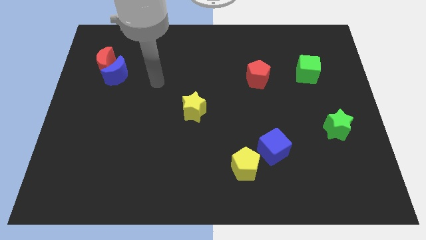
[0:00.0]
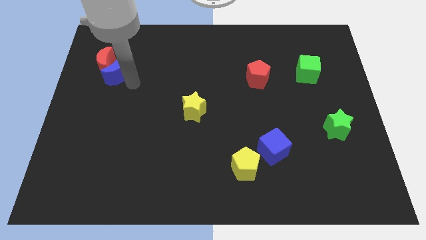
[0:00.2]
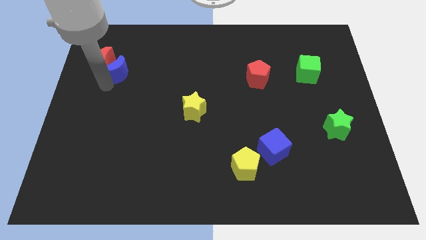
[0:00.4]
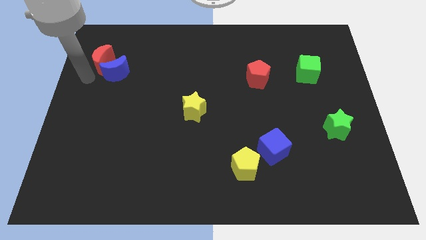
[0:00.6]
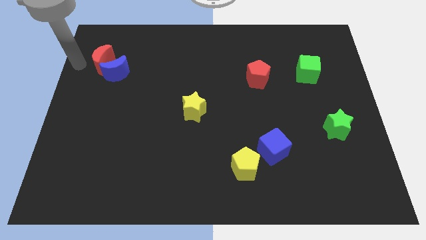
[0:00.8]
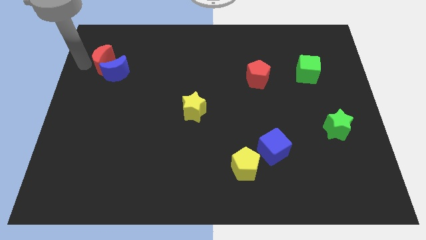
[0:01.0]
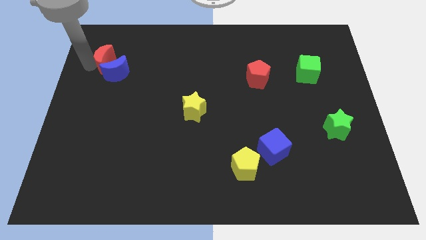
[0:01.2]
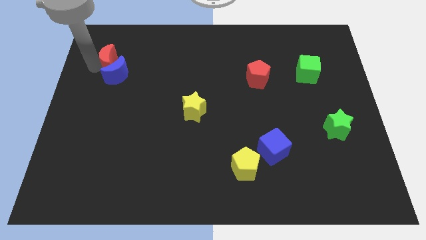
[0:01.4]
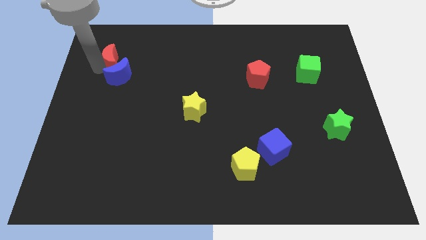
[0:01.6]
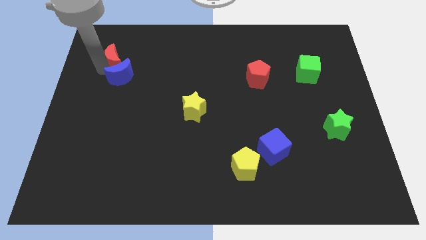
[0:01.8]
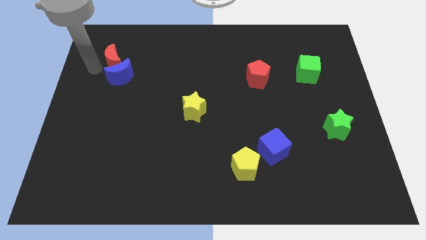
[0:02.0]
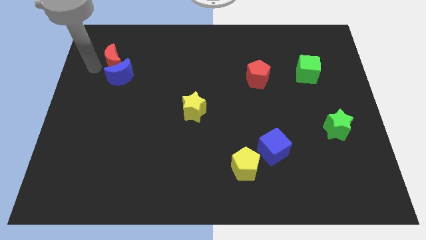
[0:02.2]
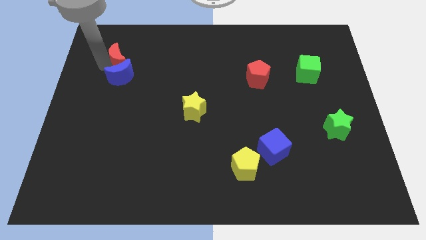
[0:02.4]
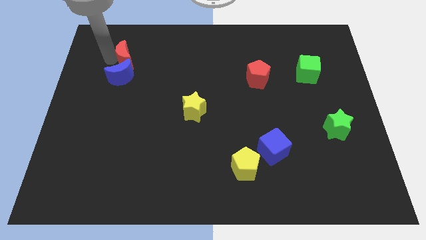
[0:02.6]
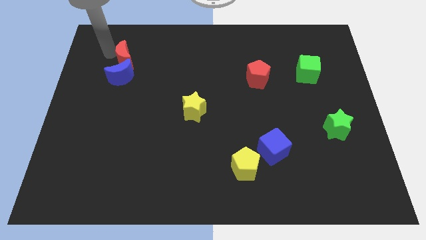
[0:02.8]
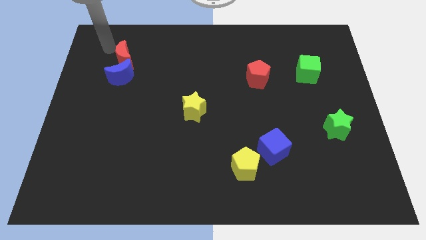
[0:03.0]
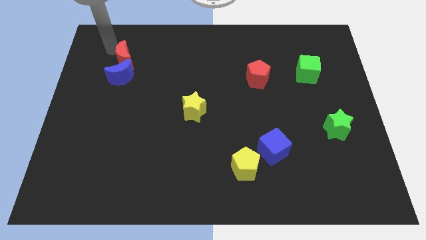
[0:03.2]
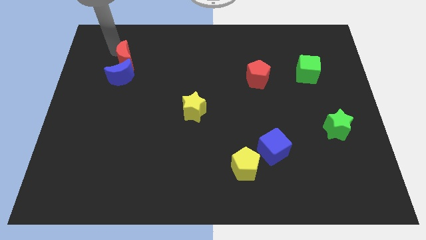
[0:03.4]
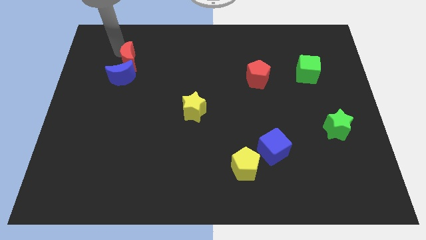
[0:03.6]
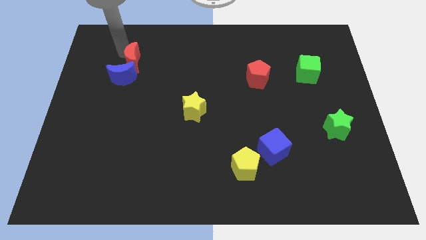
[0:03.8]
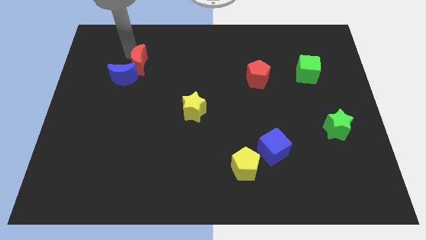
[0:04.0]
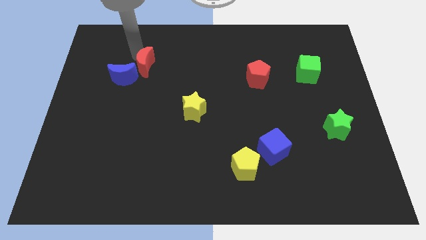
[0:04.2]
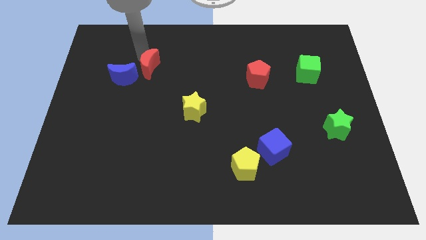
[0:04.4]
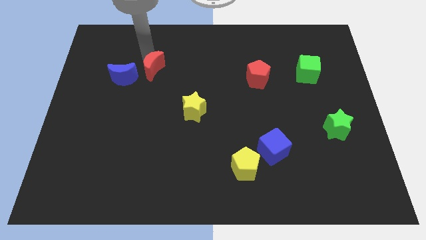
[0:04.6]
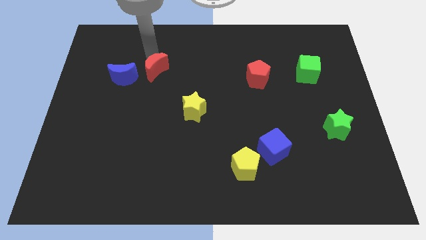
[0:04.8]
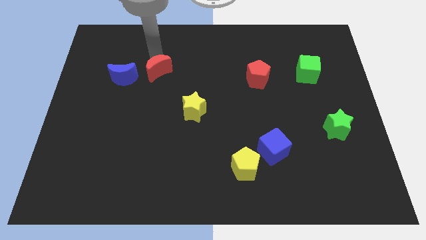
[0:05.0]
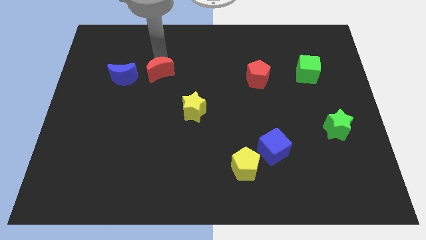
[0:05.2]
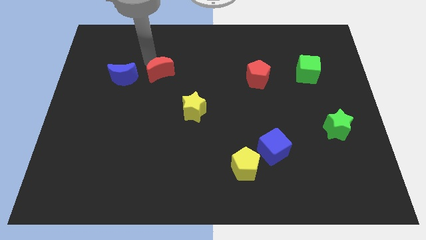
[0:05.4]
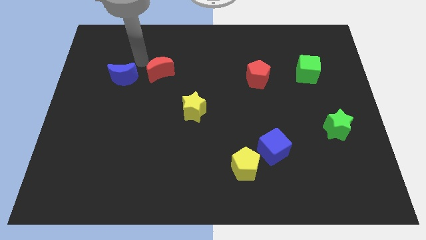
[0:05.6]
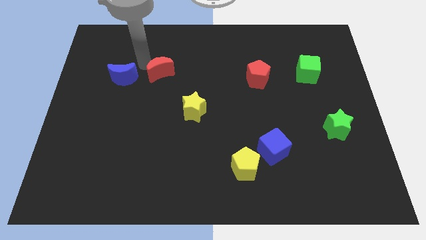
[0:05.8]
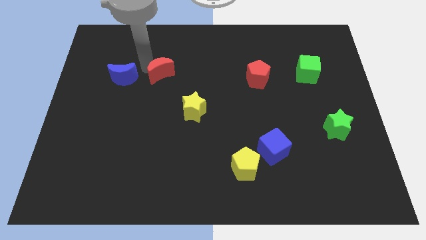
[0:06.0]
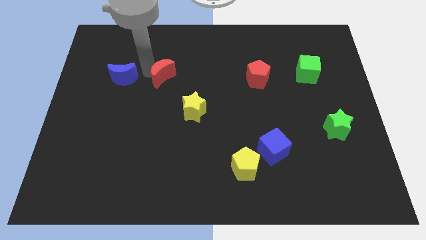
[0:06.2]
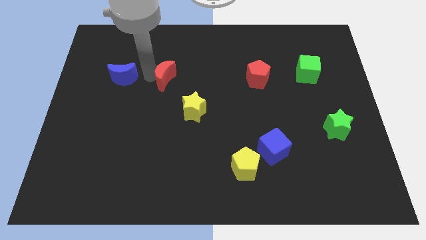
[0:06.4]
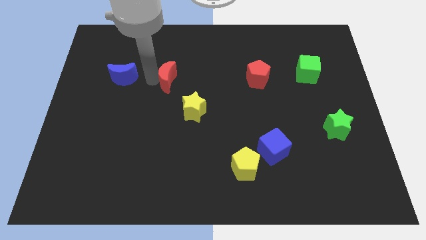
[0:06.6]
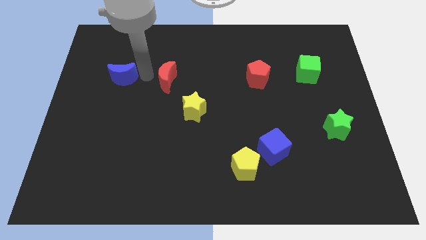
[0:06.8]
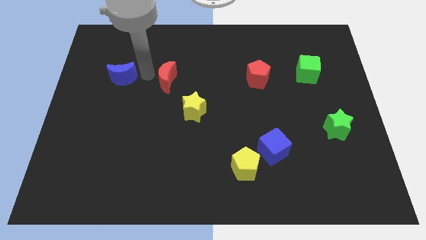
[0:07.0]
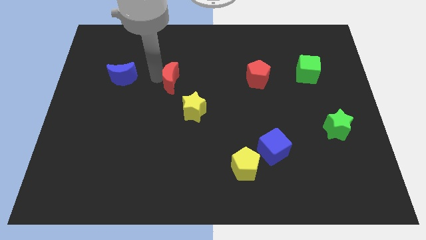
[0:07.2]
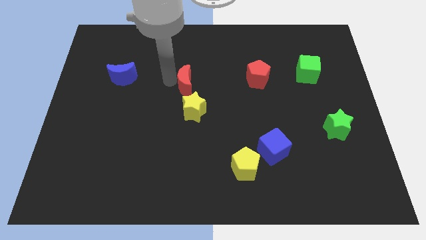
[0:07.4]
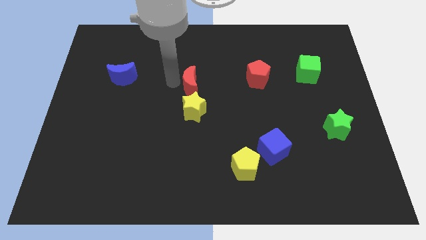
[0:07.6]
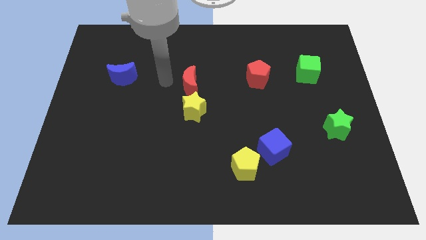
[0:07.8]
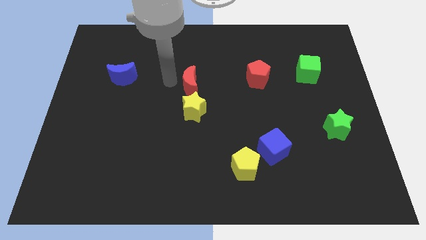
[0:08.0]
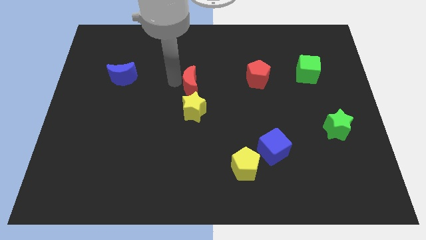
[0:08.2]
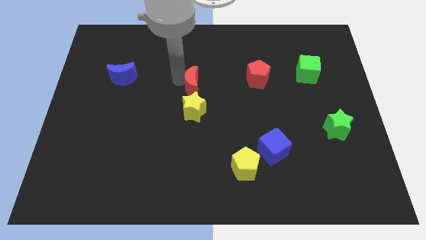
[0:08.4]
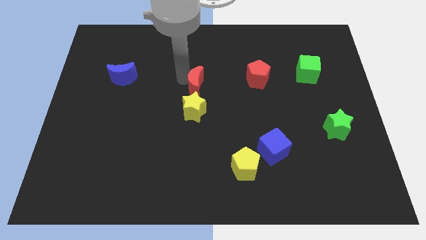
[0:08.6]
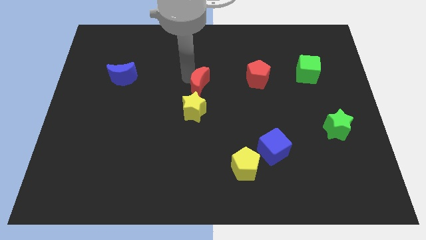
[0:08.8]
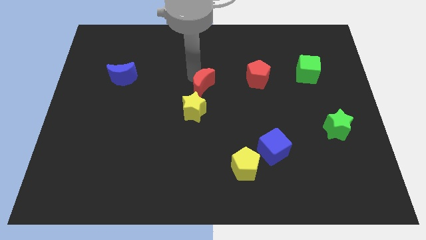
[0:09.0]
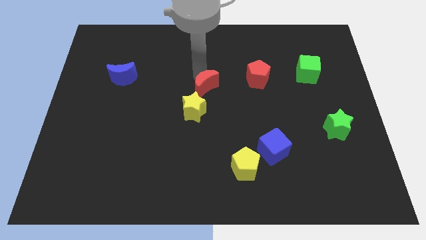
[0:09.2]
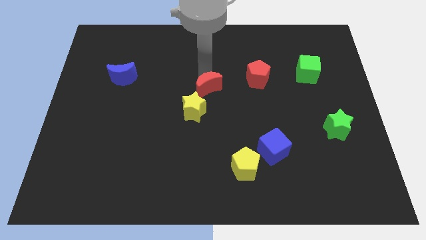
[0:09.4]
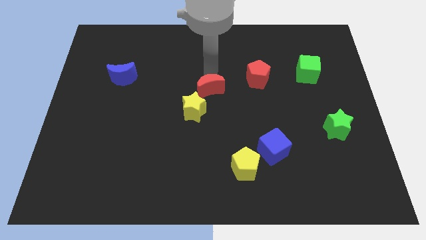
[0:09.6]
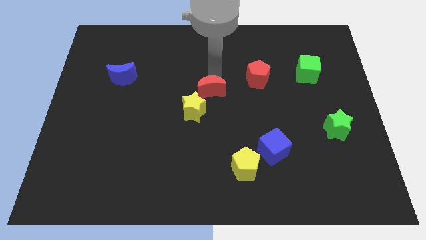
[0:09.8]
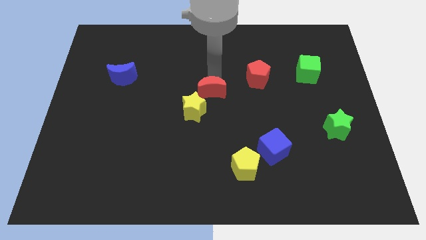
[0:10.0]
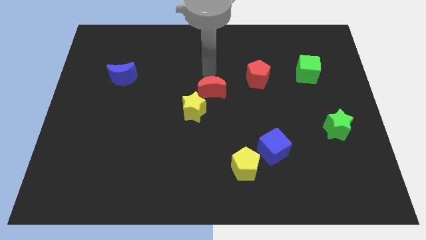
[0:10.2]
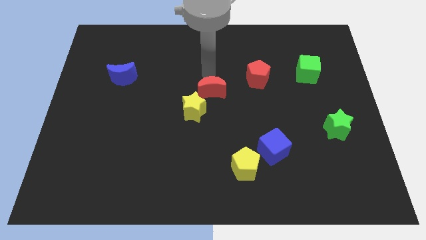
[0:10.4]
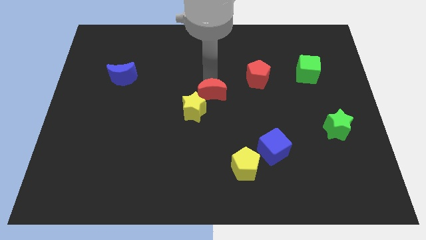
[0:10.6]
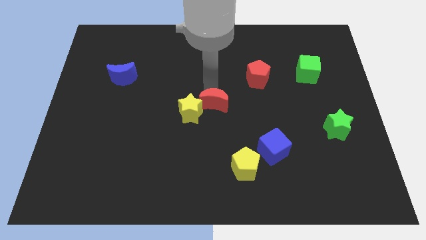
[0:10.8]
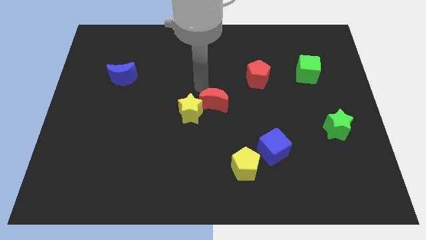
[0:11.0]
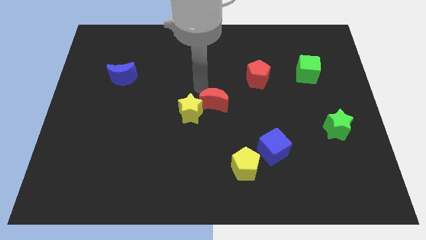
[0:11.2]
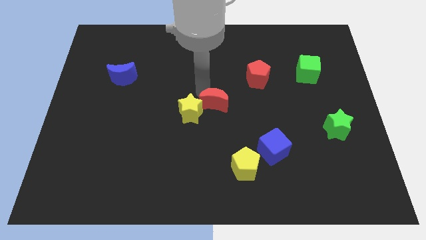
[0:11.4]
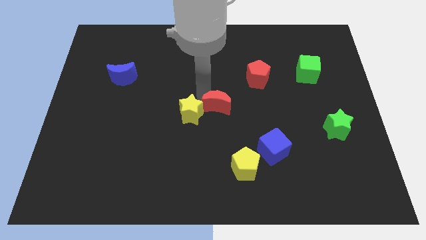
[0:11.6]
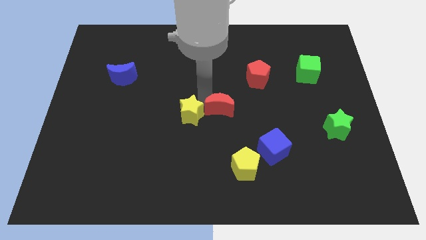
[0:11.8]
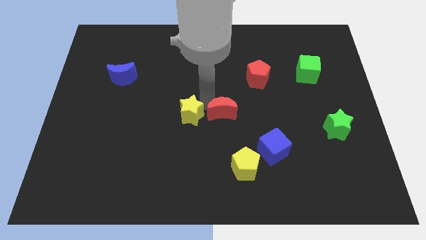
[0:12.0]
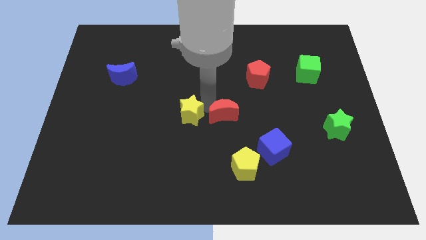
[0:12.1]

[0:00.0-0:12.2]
put the red moon to the top side of the yellow pentagon

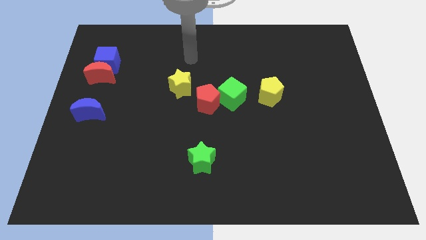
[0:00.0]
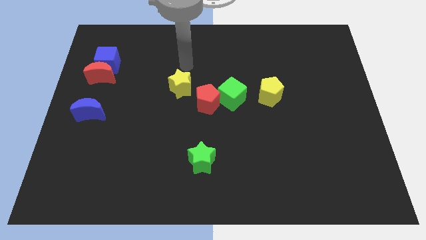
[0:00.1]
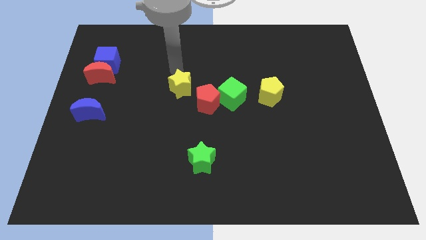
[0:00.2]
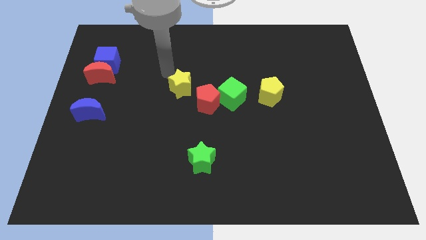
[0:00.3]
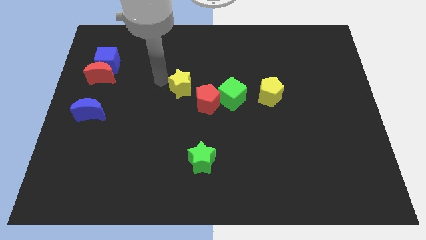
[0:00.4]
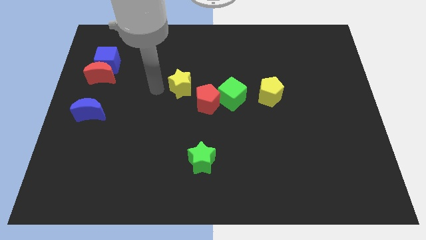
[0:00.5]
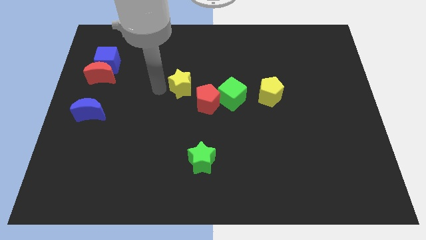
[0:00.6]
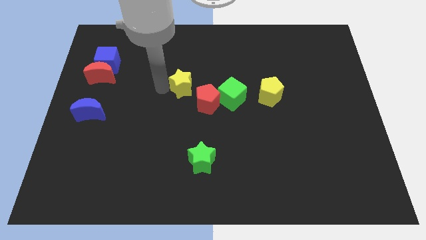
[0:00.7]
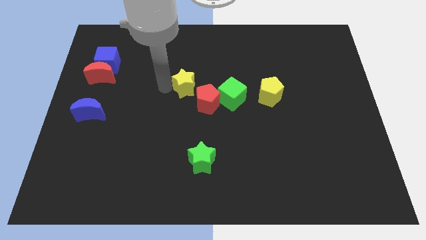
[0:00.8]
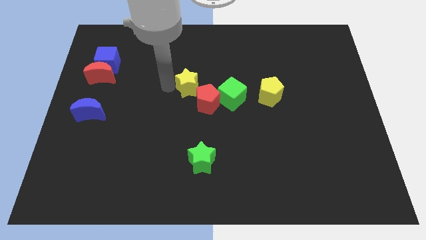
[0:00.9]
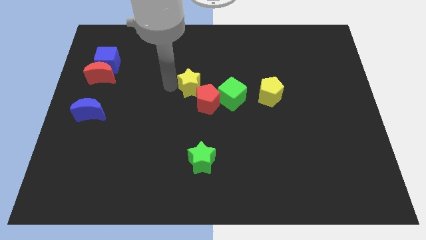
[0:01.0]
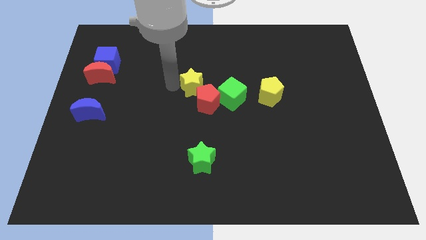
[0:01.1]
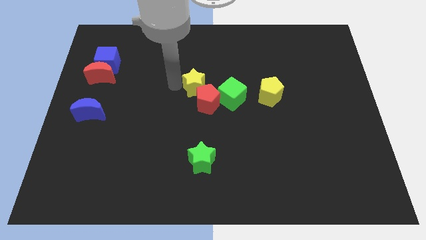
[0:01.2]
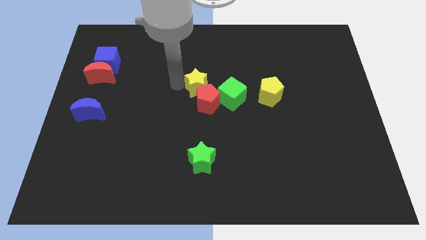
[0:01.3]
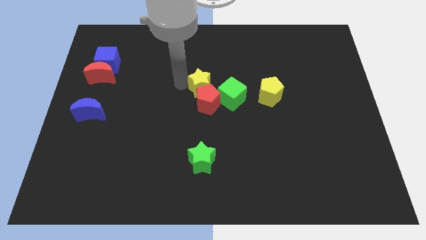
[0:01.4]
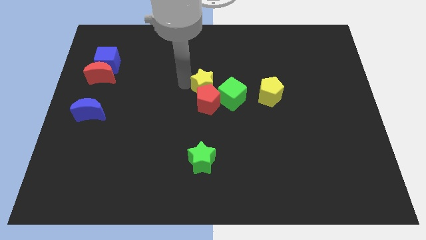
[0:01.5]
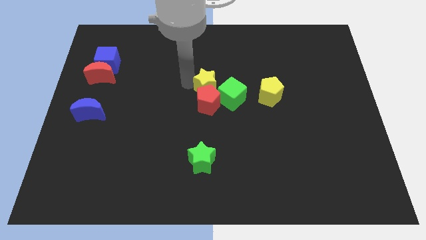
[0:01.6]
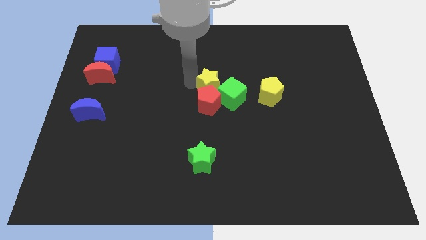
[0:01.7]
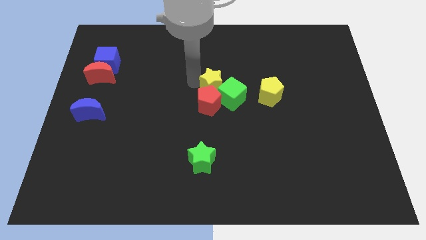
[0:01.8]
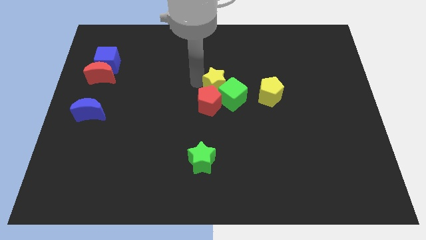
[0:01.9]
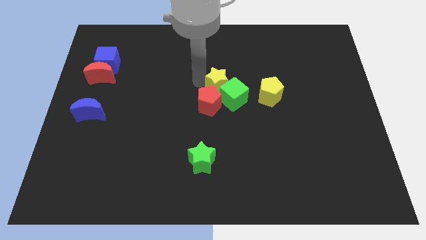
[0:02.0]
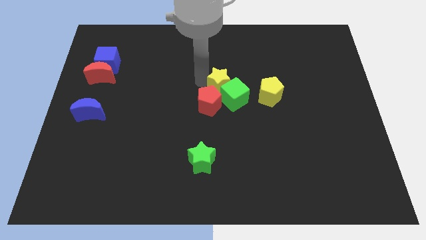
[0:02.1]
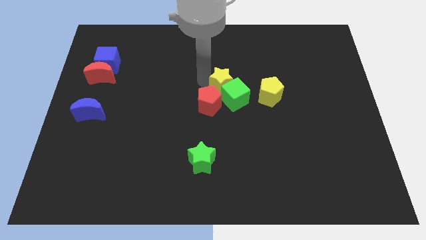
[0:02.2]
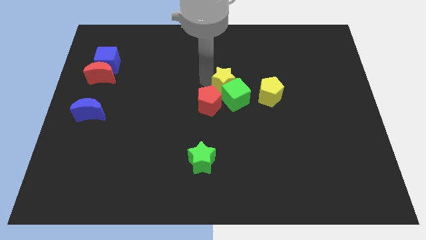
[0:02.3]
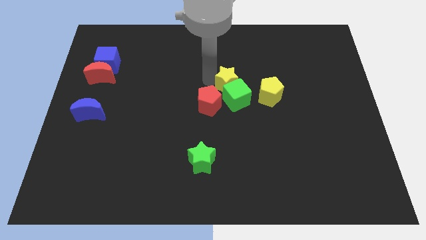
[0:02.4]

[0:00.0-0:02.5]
push the yellow star to the top left of the yellow pentagon
